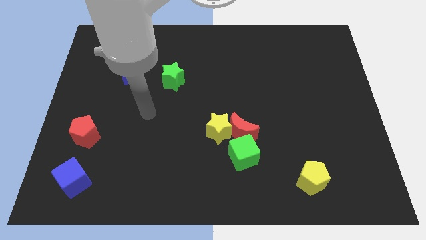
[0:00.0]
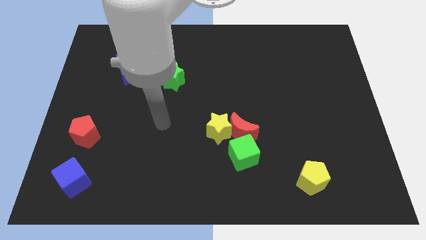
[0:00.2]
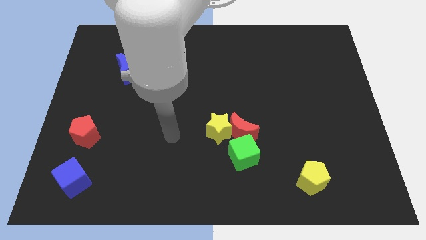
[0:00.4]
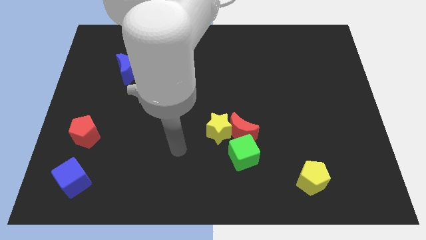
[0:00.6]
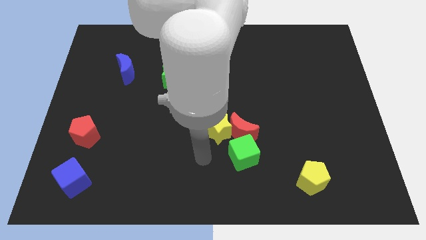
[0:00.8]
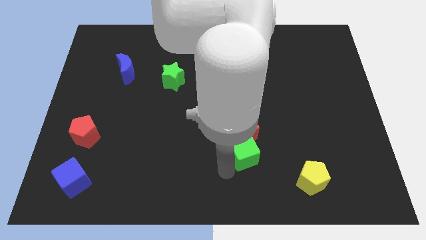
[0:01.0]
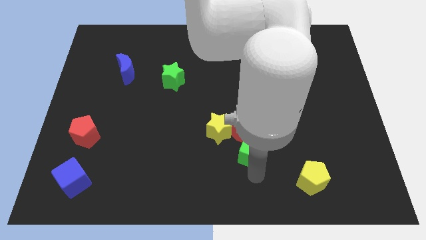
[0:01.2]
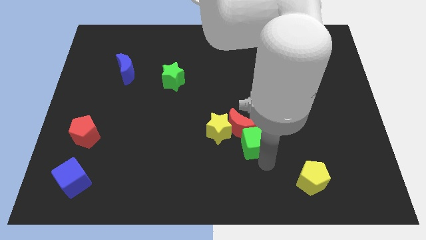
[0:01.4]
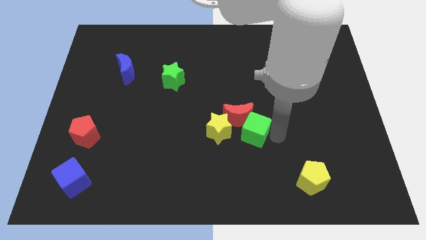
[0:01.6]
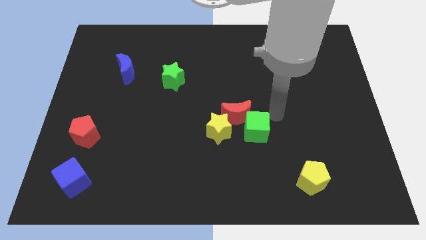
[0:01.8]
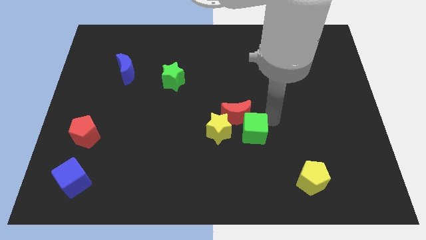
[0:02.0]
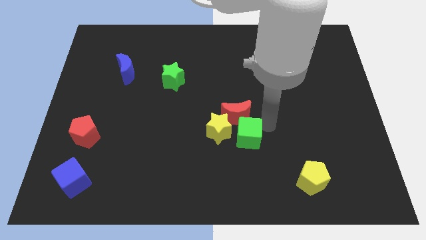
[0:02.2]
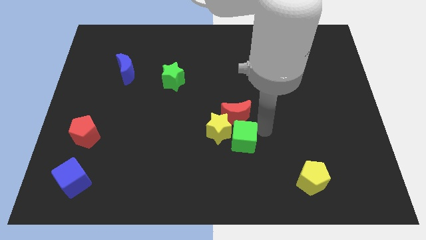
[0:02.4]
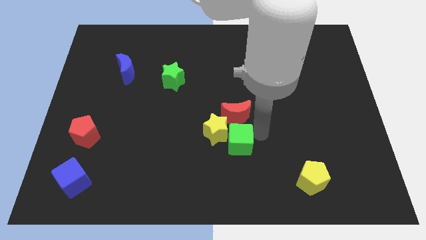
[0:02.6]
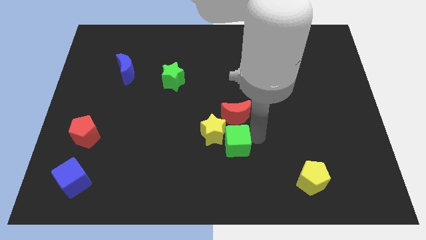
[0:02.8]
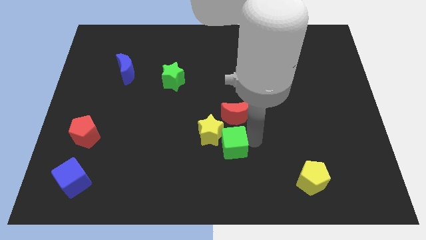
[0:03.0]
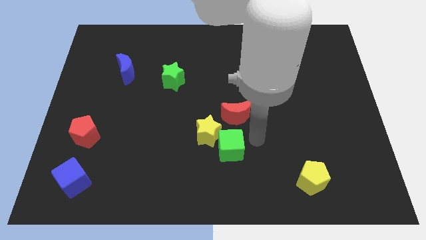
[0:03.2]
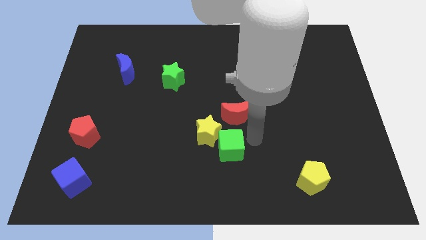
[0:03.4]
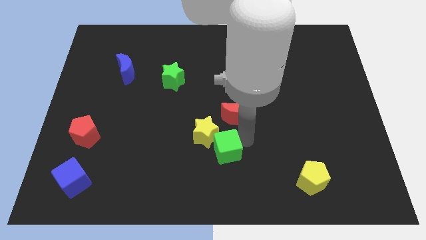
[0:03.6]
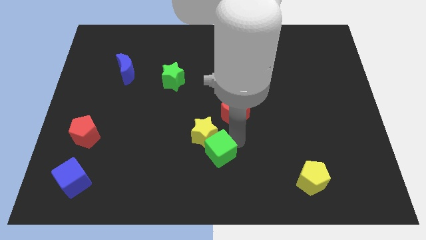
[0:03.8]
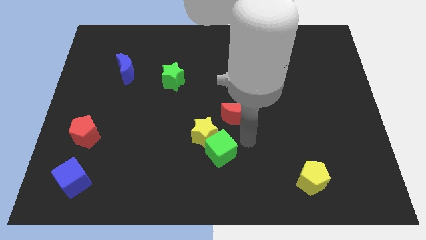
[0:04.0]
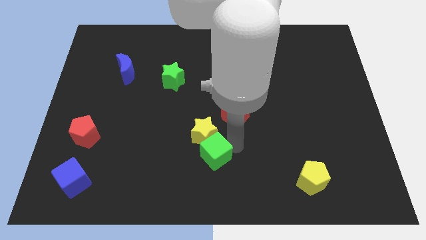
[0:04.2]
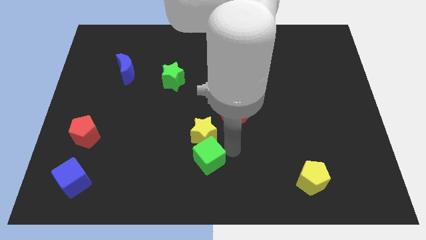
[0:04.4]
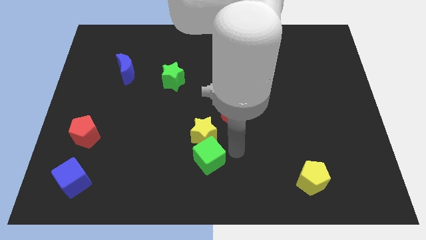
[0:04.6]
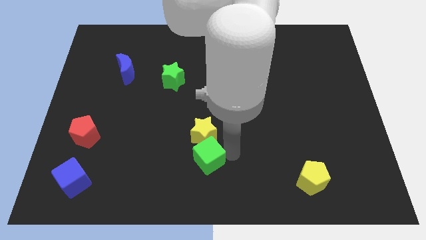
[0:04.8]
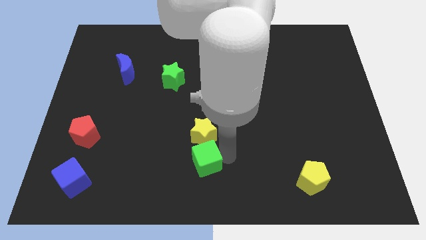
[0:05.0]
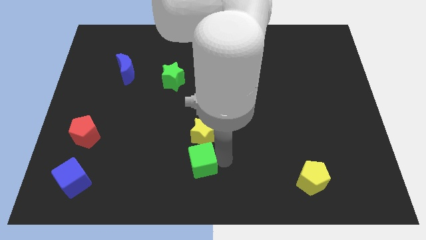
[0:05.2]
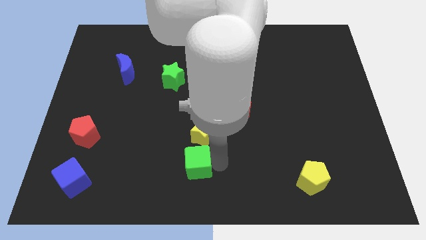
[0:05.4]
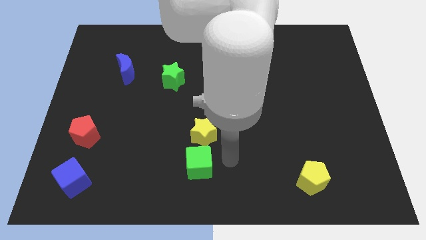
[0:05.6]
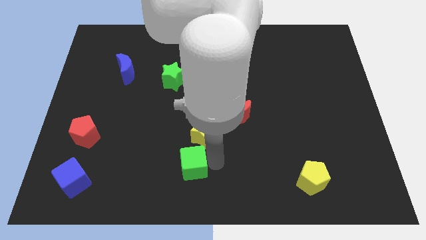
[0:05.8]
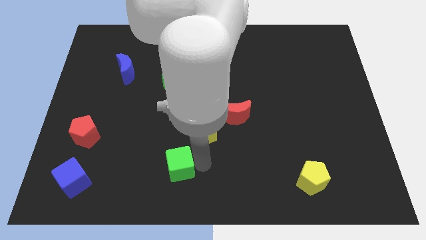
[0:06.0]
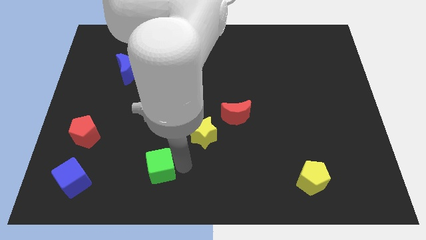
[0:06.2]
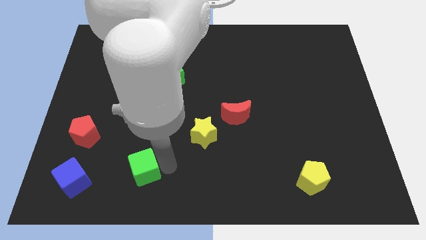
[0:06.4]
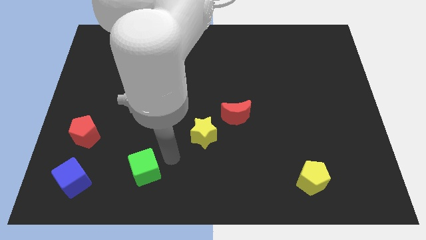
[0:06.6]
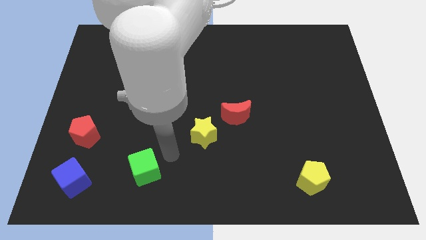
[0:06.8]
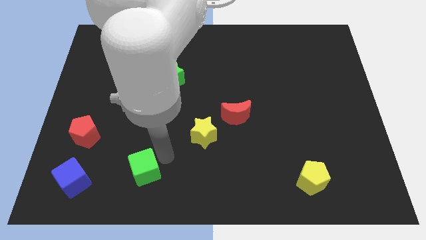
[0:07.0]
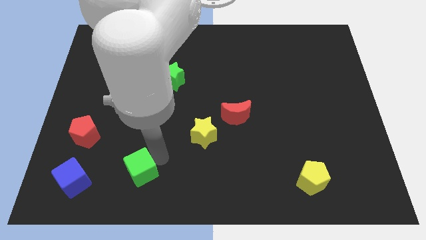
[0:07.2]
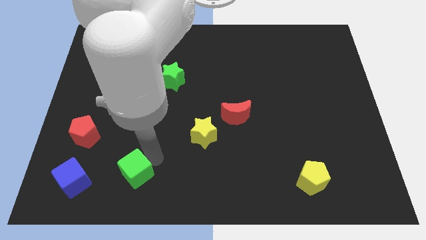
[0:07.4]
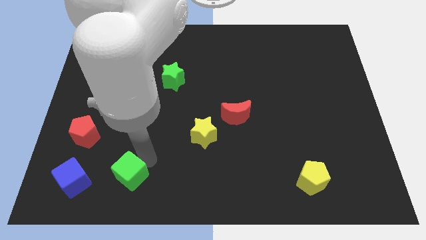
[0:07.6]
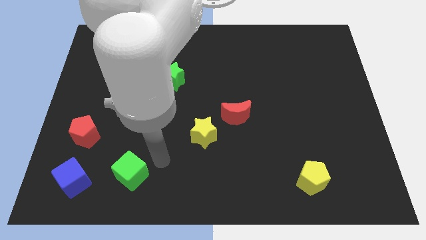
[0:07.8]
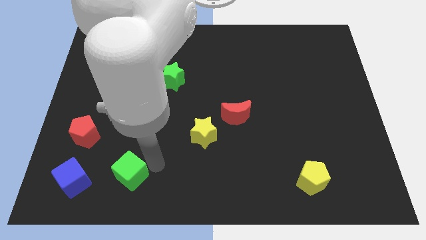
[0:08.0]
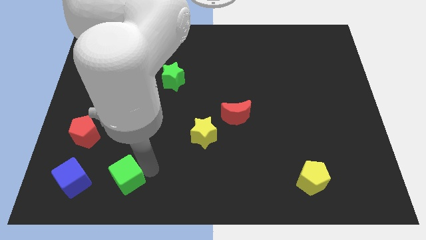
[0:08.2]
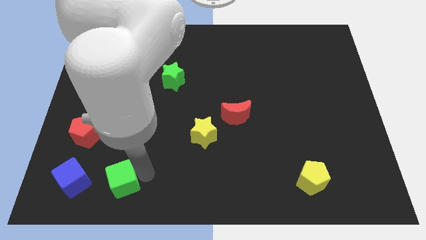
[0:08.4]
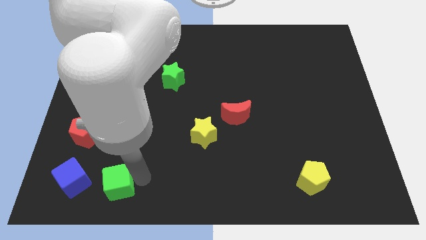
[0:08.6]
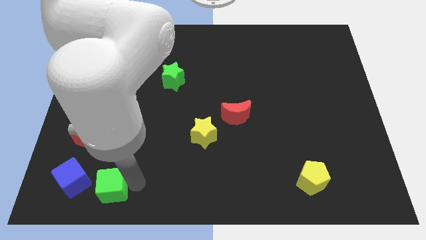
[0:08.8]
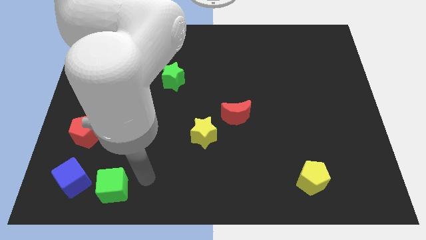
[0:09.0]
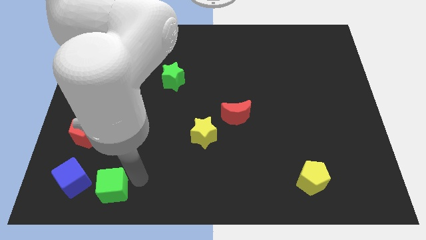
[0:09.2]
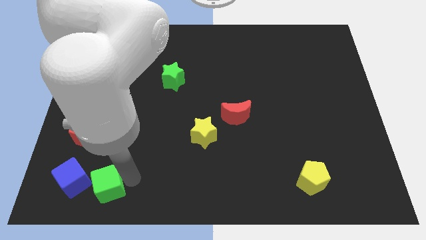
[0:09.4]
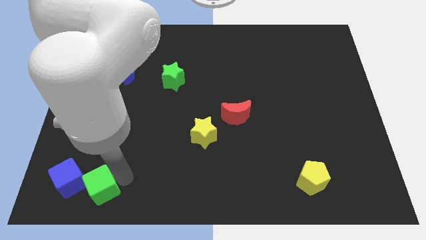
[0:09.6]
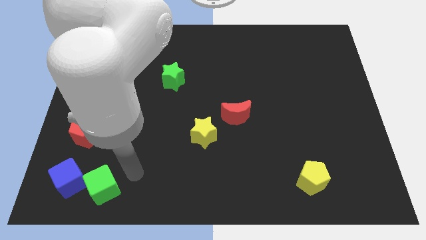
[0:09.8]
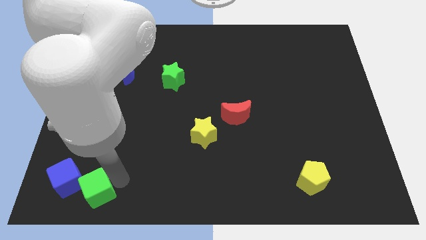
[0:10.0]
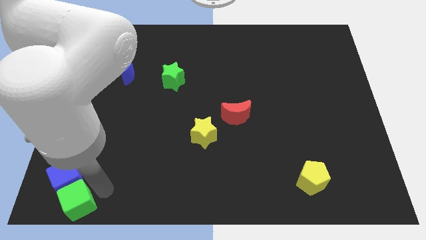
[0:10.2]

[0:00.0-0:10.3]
slide the green cube to the bottom left
